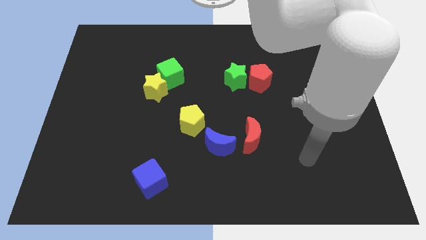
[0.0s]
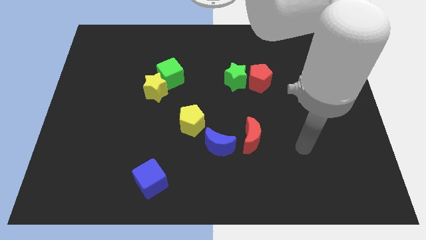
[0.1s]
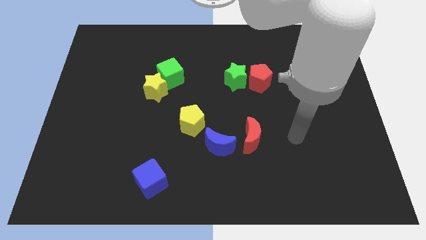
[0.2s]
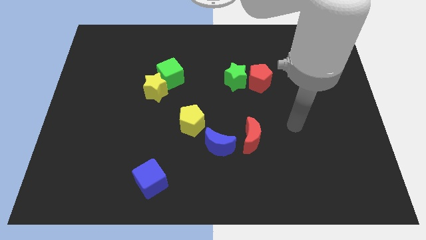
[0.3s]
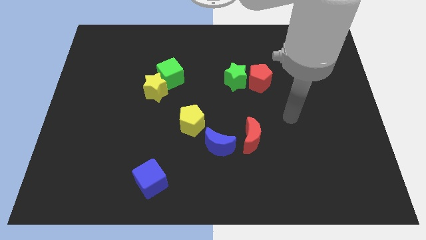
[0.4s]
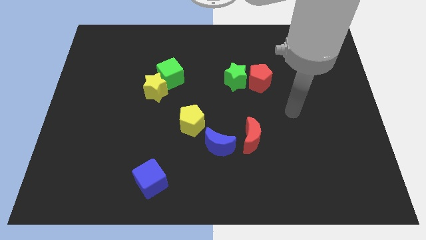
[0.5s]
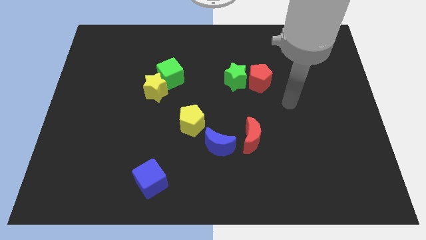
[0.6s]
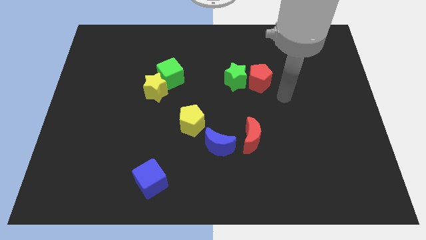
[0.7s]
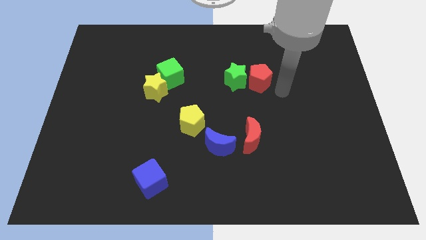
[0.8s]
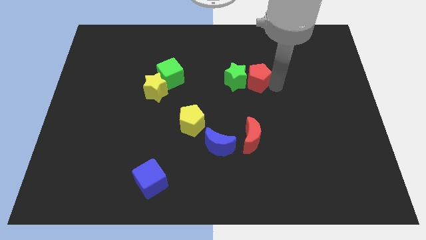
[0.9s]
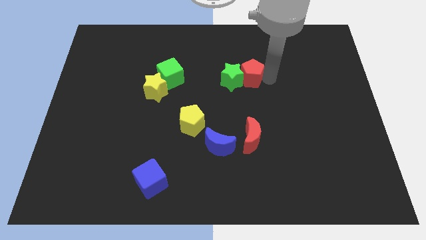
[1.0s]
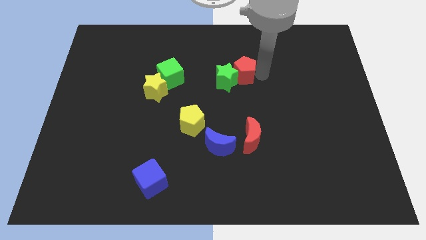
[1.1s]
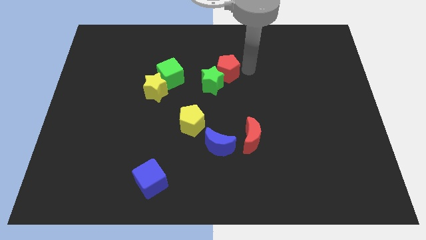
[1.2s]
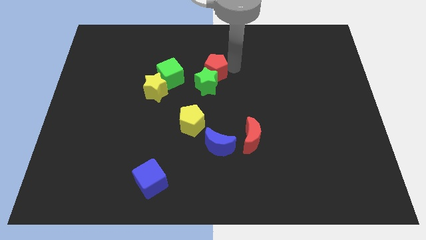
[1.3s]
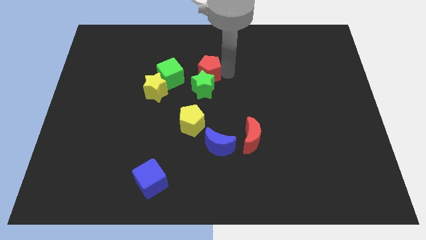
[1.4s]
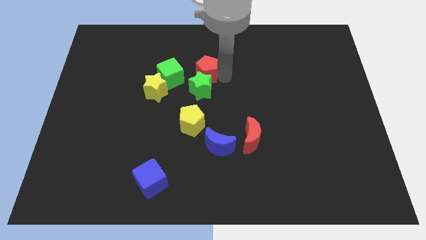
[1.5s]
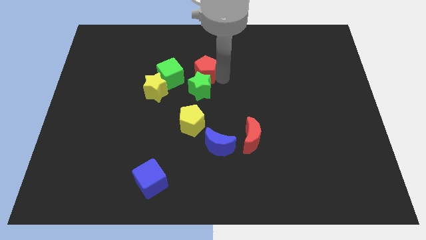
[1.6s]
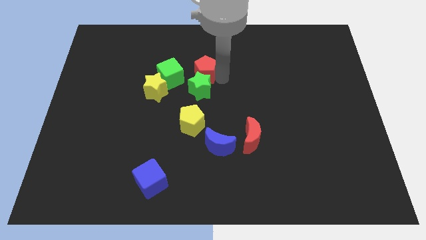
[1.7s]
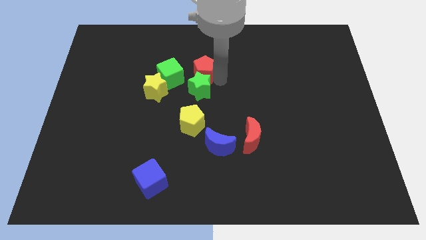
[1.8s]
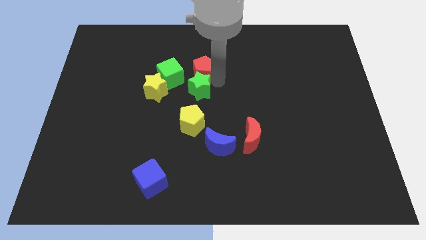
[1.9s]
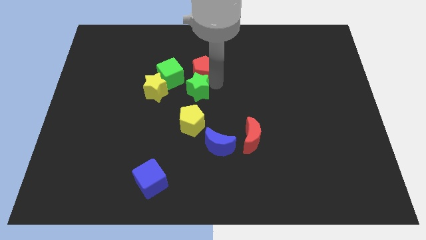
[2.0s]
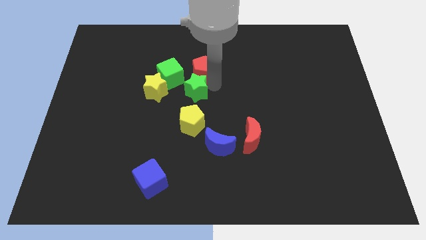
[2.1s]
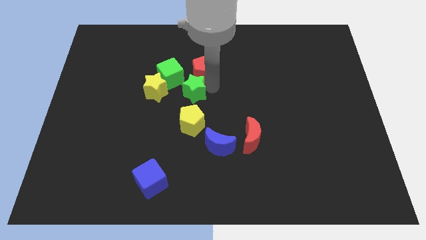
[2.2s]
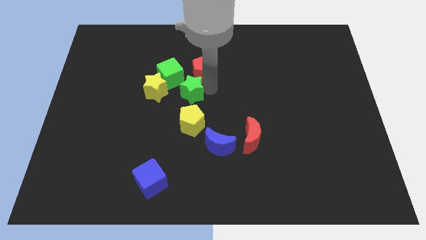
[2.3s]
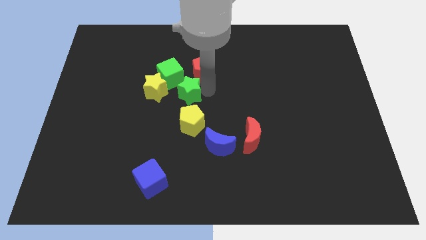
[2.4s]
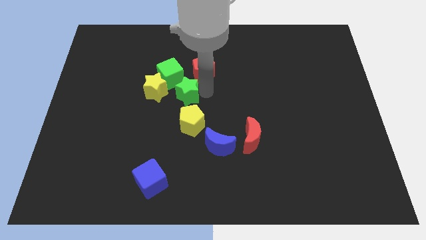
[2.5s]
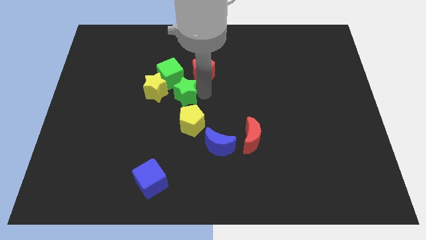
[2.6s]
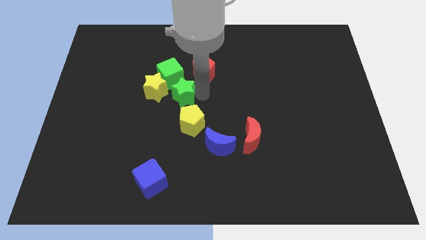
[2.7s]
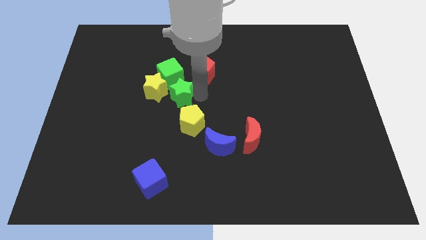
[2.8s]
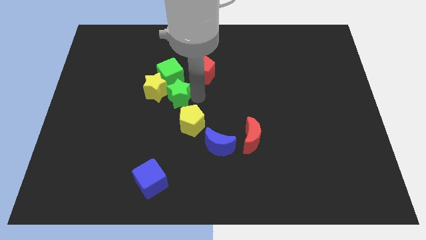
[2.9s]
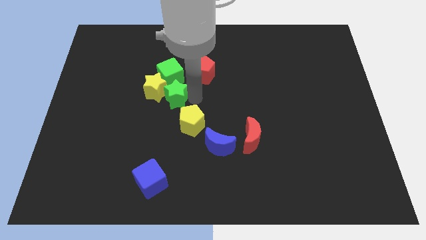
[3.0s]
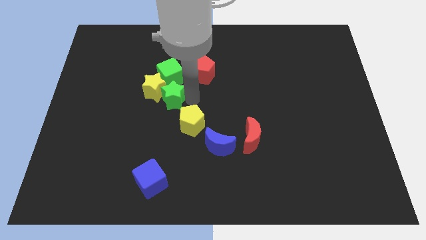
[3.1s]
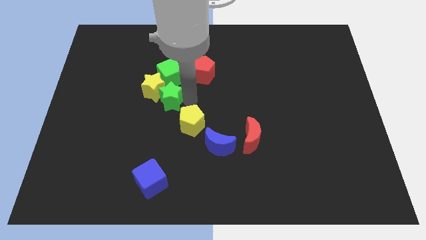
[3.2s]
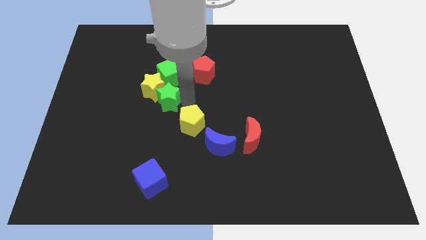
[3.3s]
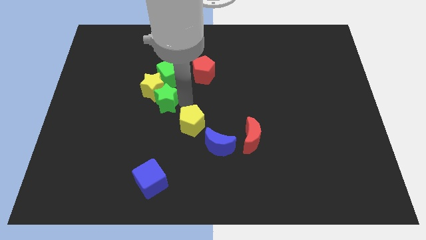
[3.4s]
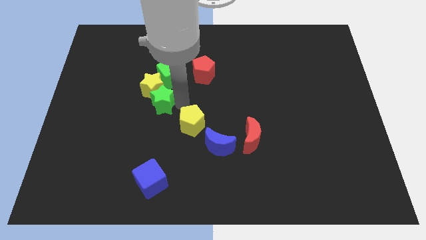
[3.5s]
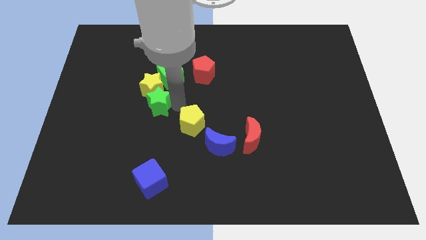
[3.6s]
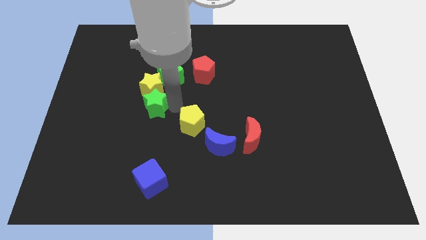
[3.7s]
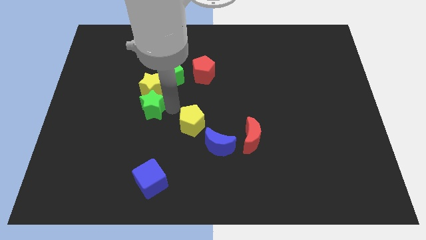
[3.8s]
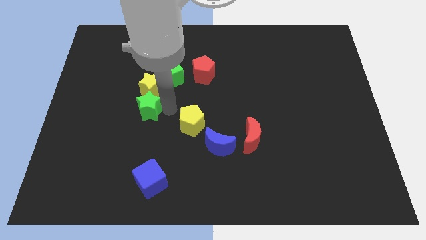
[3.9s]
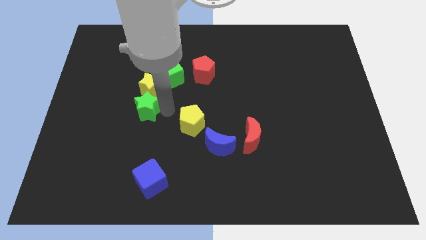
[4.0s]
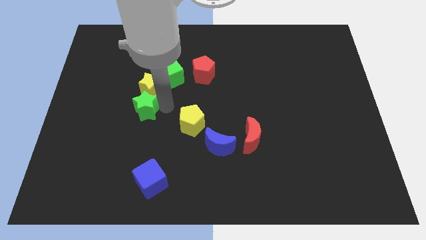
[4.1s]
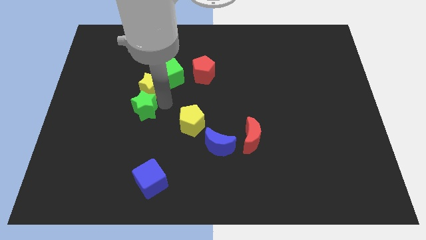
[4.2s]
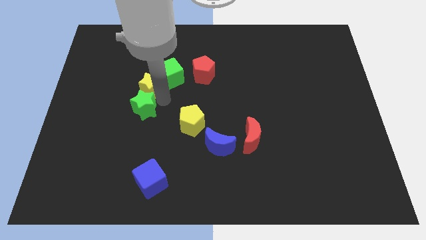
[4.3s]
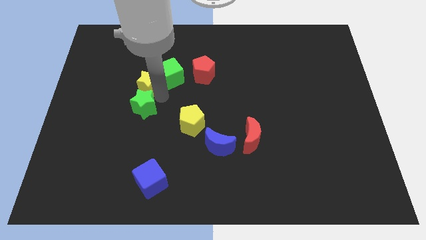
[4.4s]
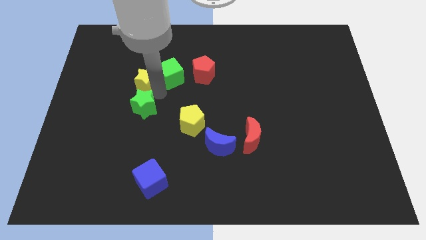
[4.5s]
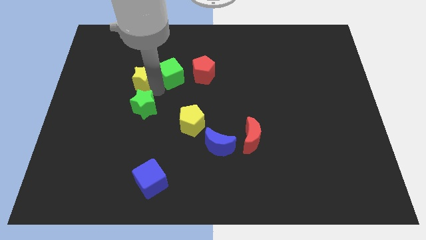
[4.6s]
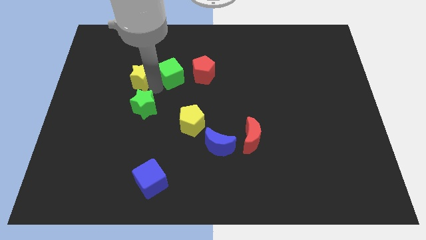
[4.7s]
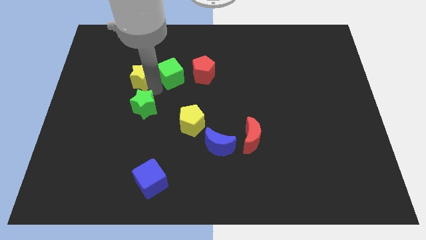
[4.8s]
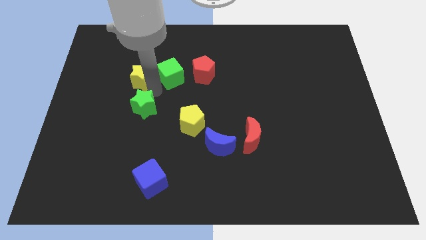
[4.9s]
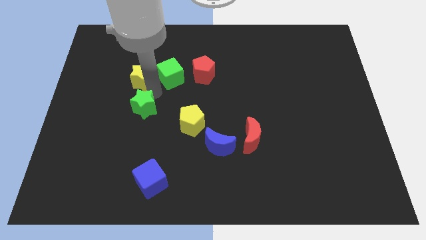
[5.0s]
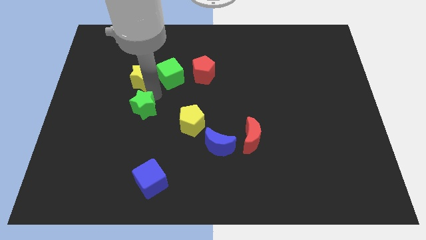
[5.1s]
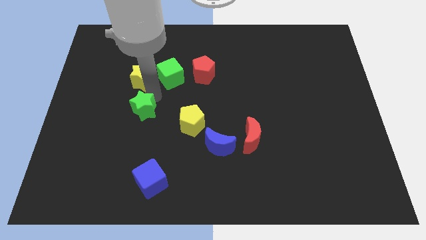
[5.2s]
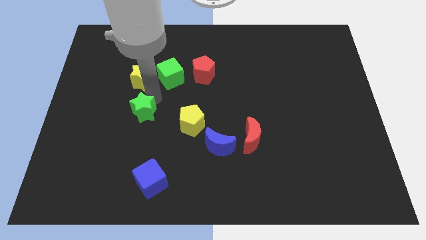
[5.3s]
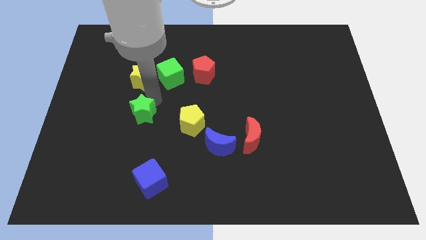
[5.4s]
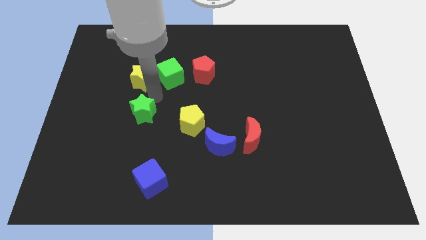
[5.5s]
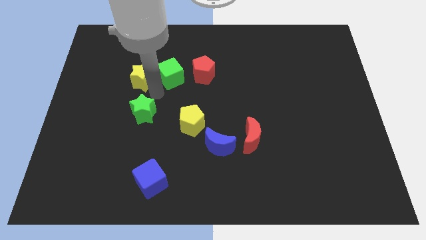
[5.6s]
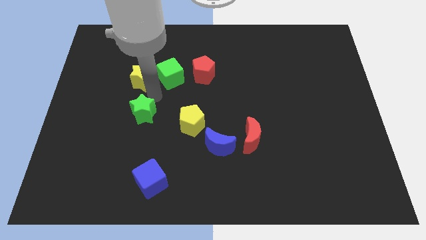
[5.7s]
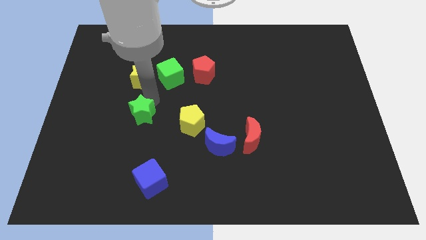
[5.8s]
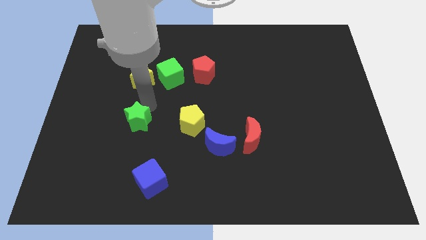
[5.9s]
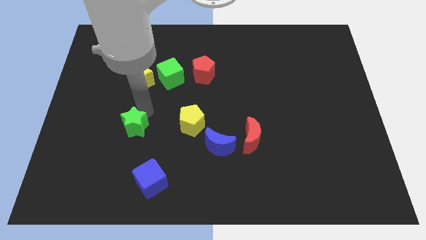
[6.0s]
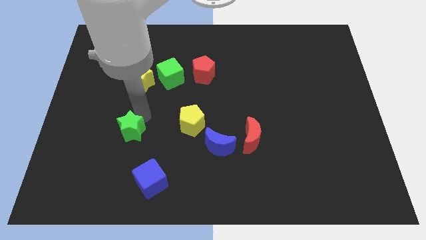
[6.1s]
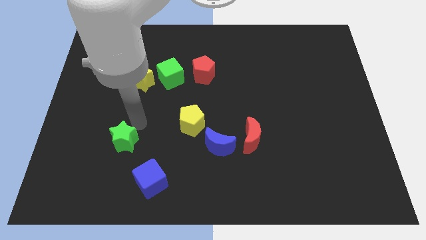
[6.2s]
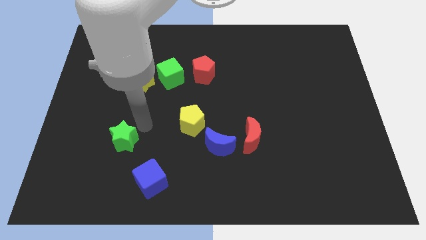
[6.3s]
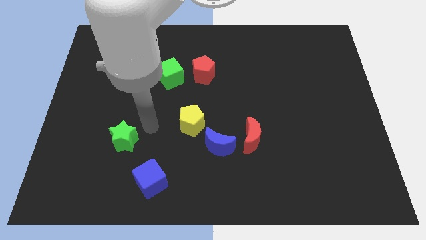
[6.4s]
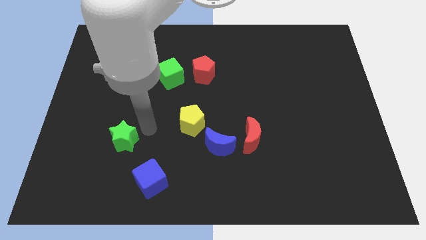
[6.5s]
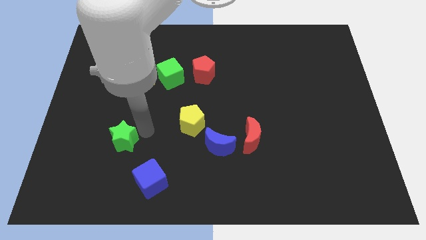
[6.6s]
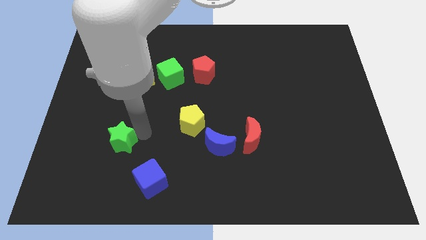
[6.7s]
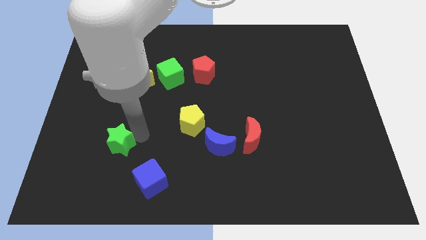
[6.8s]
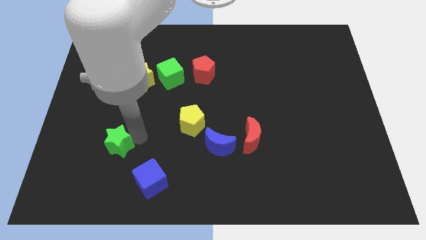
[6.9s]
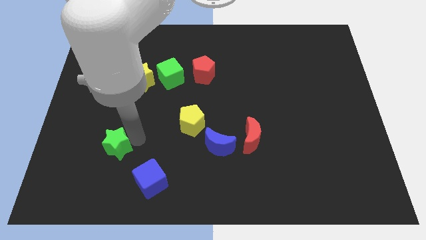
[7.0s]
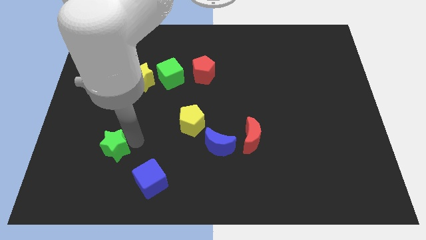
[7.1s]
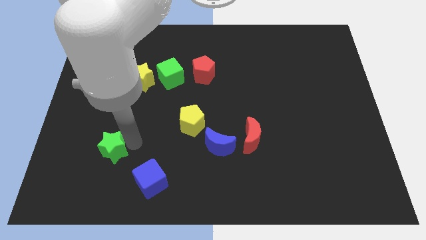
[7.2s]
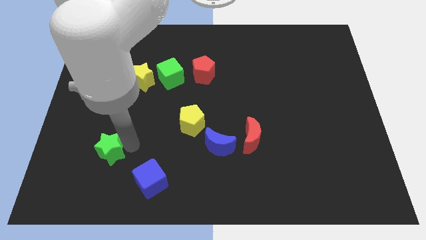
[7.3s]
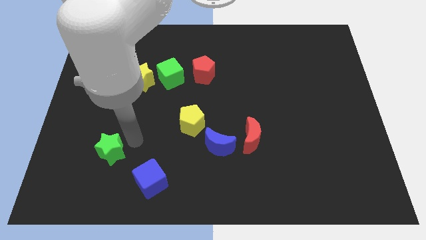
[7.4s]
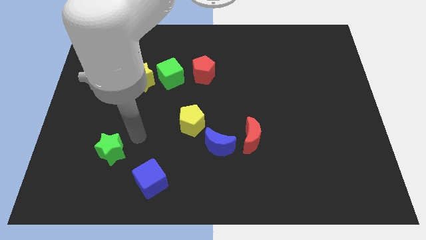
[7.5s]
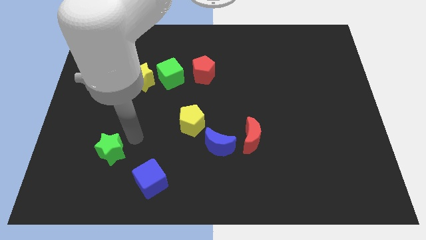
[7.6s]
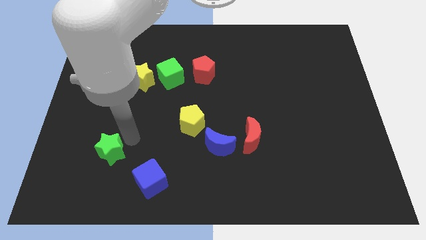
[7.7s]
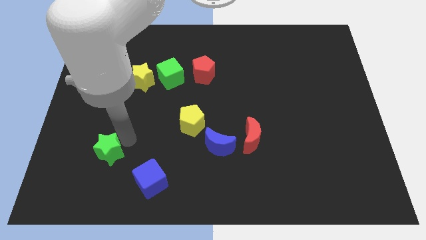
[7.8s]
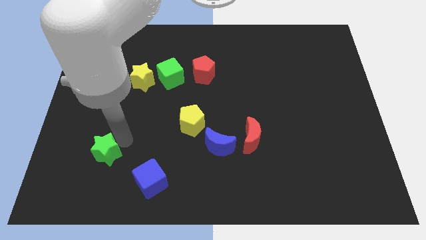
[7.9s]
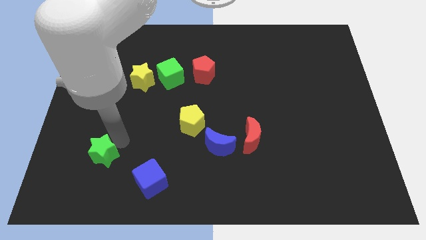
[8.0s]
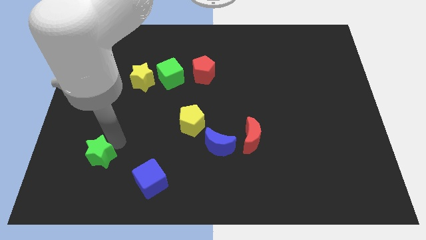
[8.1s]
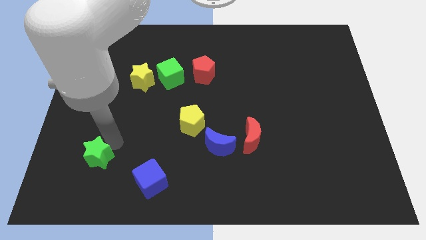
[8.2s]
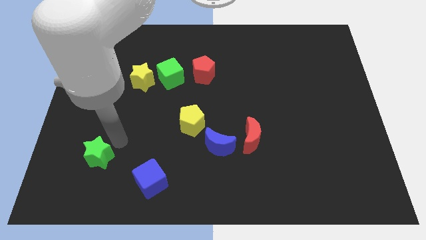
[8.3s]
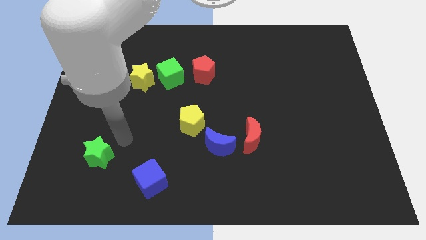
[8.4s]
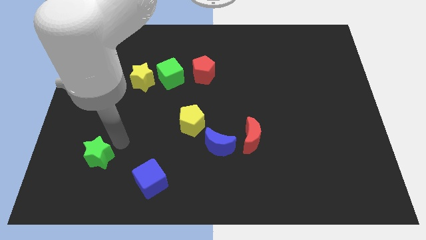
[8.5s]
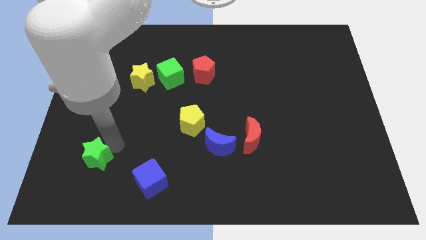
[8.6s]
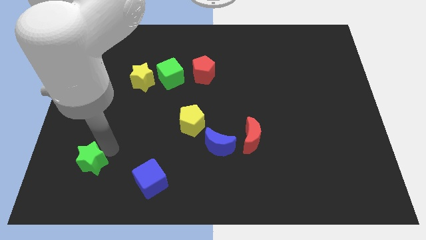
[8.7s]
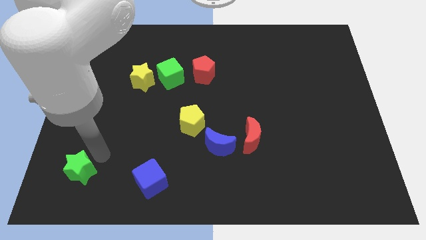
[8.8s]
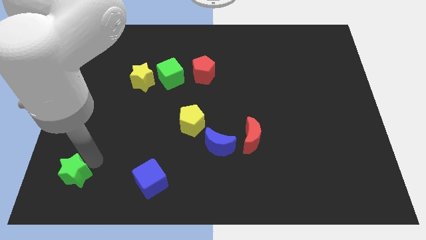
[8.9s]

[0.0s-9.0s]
move the green star to the bottom left
